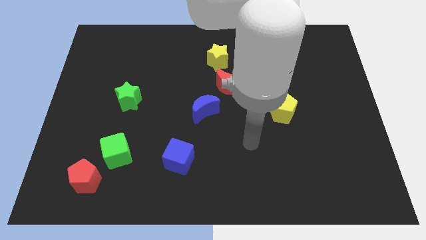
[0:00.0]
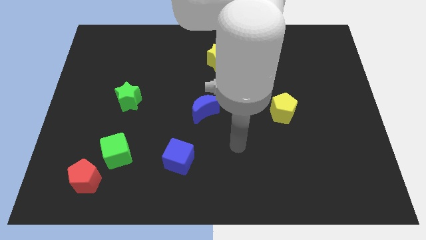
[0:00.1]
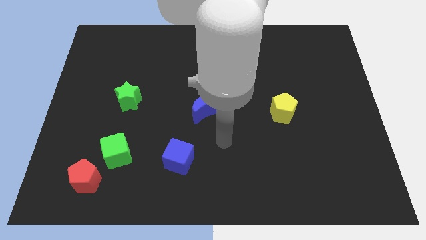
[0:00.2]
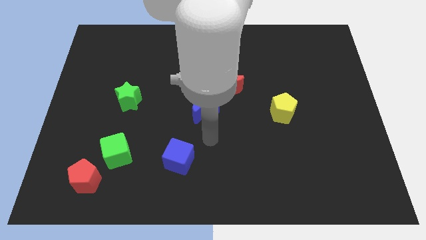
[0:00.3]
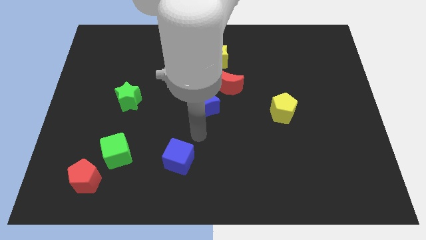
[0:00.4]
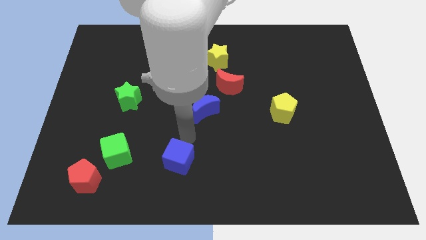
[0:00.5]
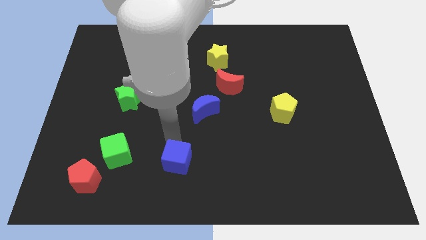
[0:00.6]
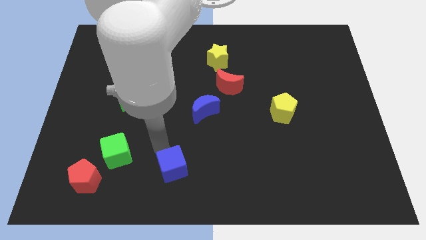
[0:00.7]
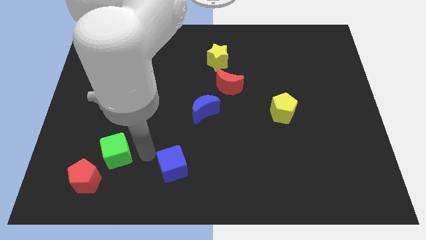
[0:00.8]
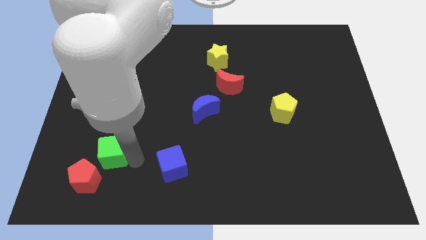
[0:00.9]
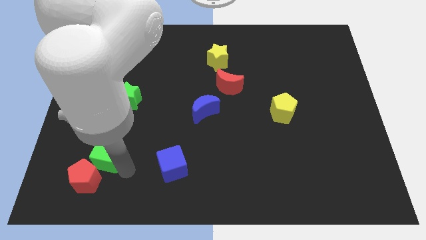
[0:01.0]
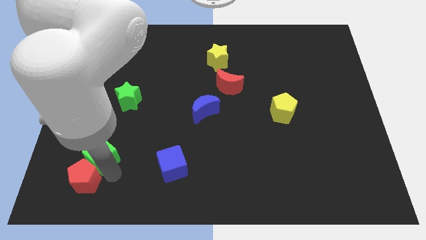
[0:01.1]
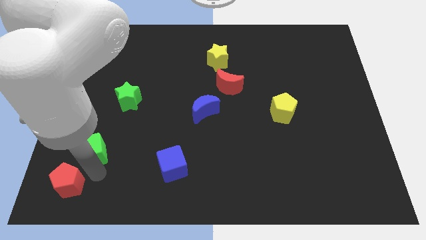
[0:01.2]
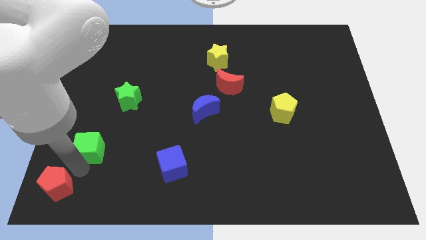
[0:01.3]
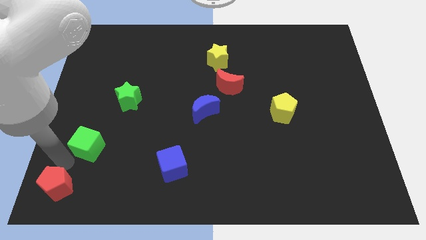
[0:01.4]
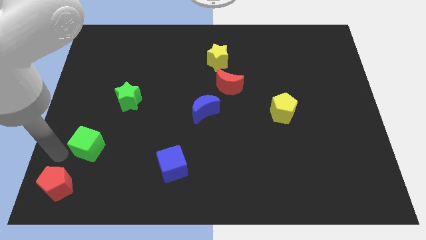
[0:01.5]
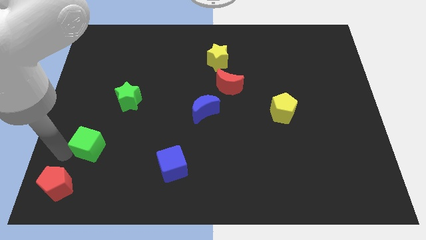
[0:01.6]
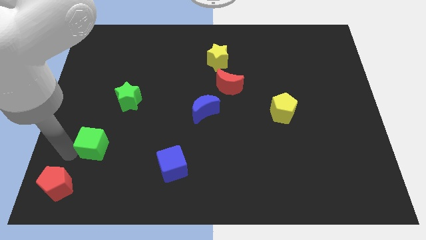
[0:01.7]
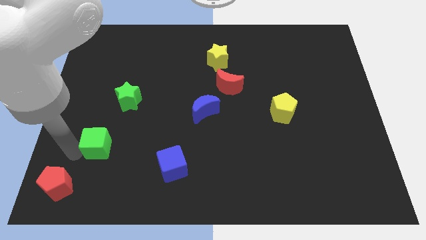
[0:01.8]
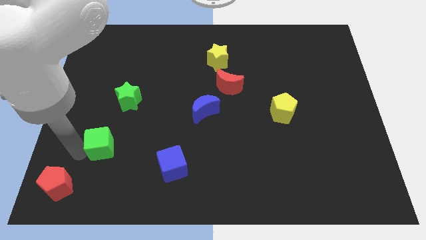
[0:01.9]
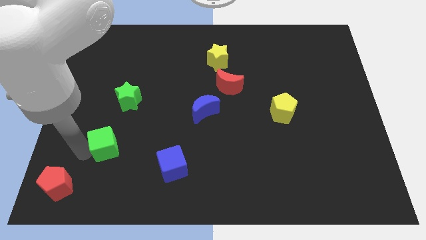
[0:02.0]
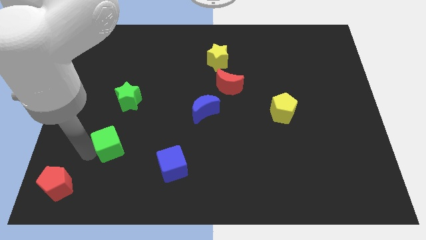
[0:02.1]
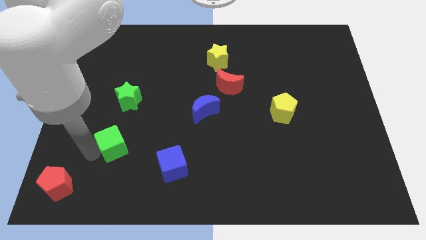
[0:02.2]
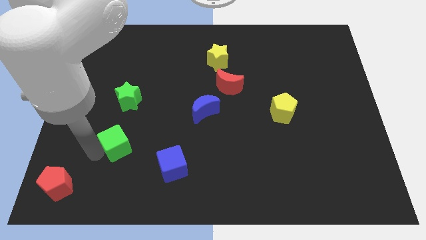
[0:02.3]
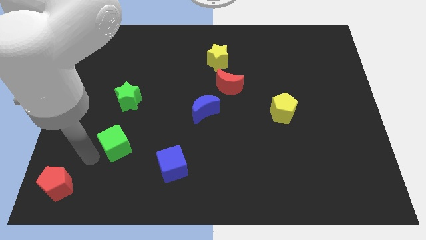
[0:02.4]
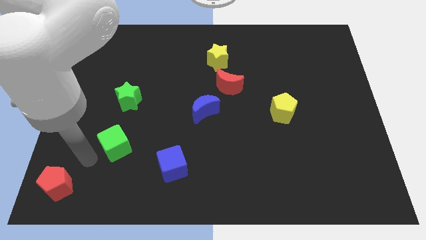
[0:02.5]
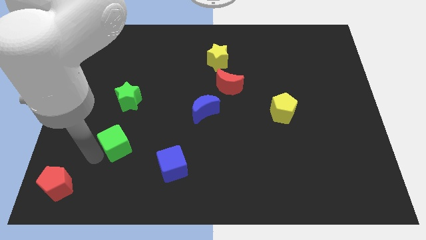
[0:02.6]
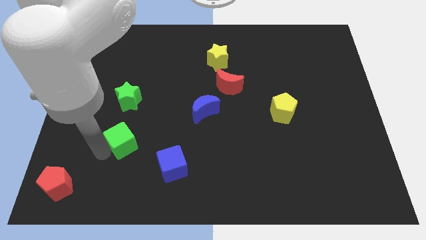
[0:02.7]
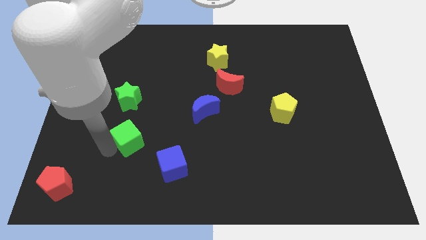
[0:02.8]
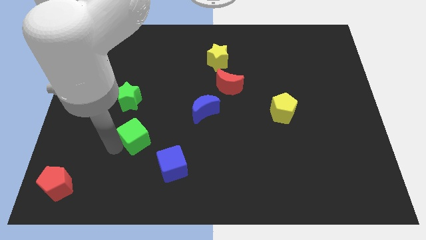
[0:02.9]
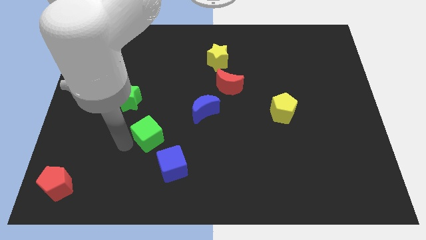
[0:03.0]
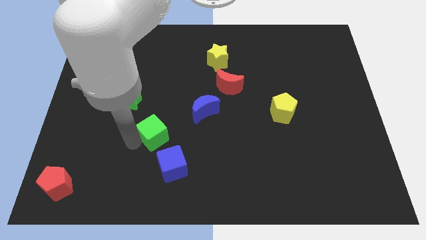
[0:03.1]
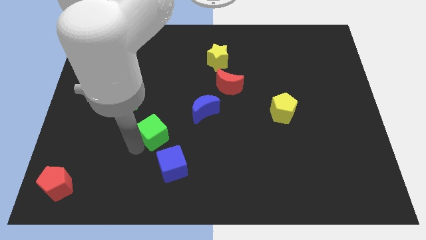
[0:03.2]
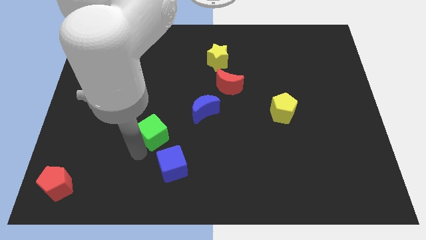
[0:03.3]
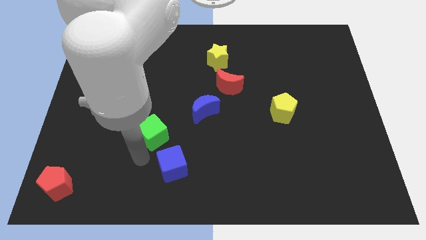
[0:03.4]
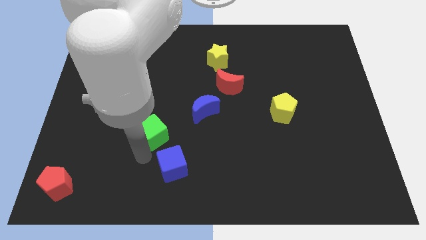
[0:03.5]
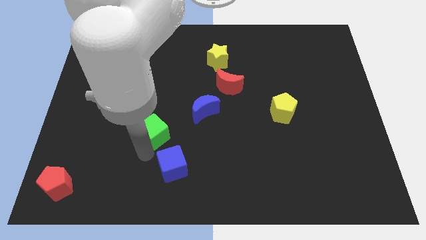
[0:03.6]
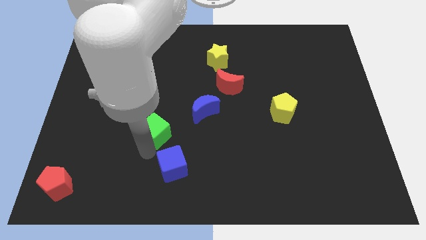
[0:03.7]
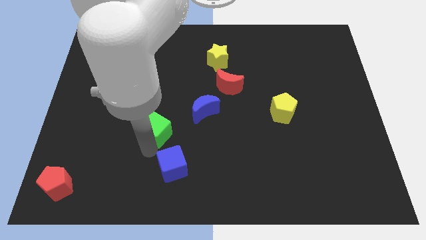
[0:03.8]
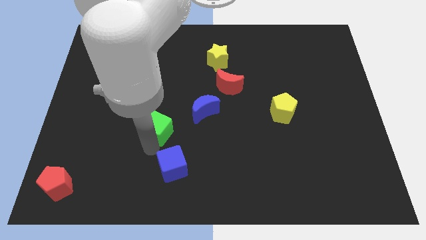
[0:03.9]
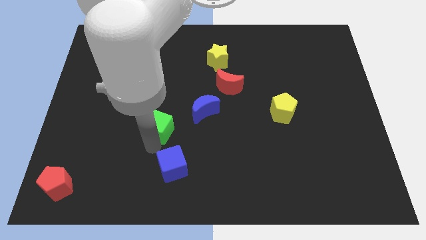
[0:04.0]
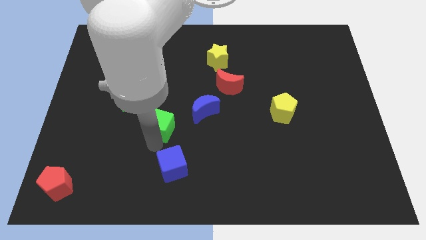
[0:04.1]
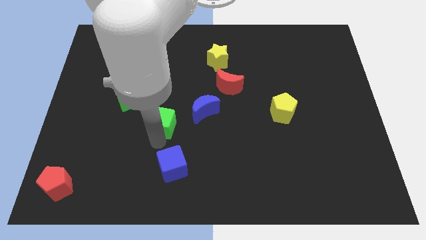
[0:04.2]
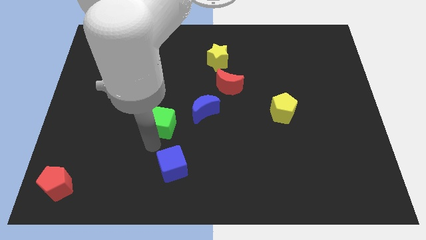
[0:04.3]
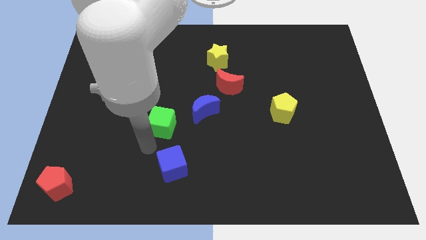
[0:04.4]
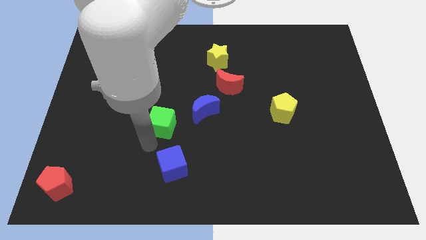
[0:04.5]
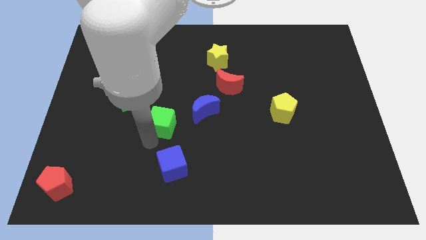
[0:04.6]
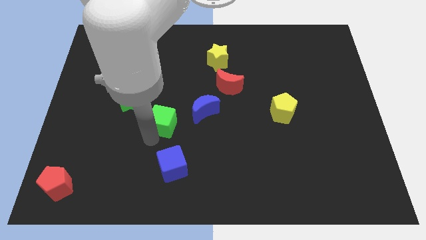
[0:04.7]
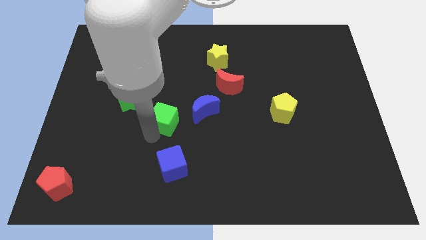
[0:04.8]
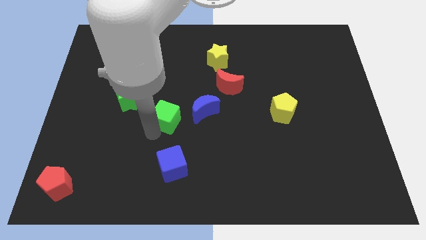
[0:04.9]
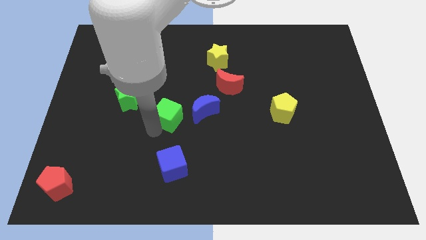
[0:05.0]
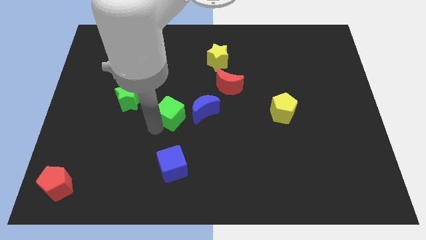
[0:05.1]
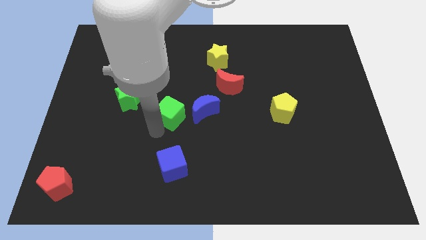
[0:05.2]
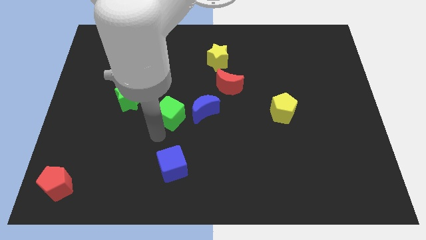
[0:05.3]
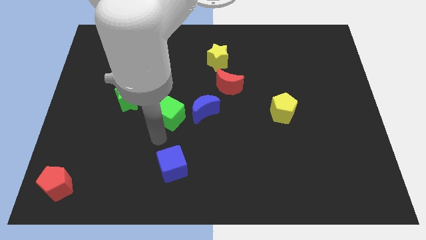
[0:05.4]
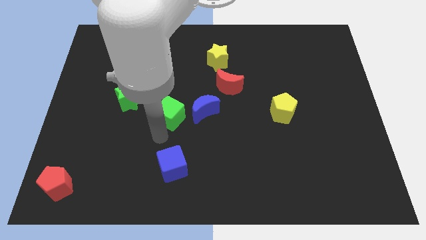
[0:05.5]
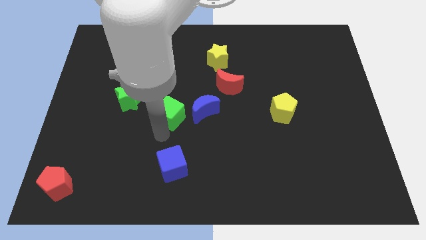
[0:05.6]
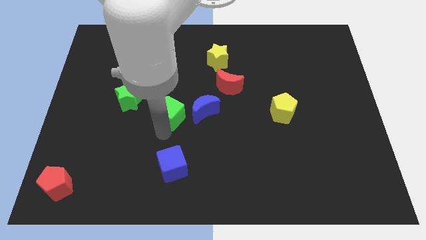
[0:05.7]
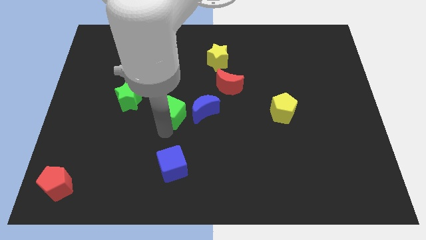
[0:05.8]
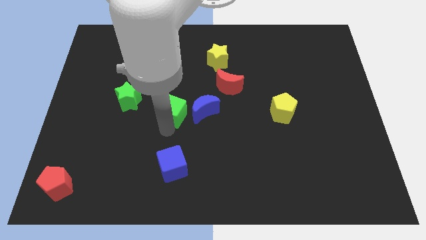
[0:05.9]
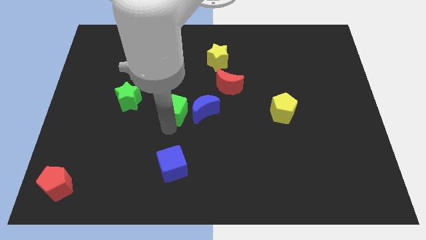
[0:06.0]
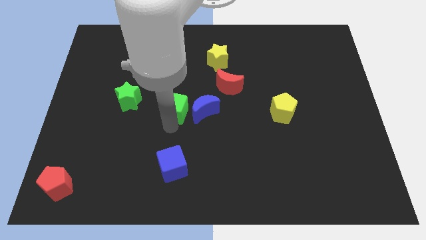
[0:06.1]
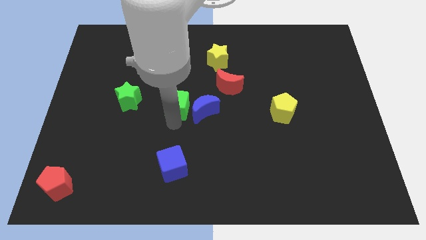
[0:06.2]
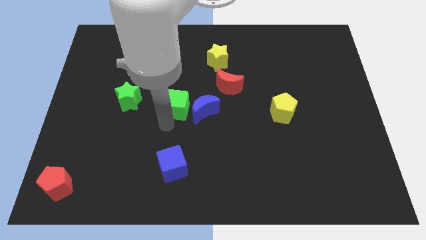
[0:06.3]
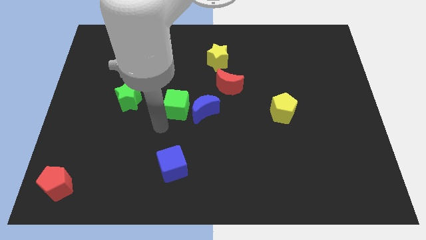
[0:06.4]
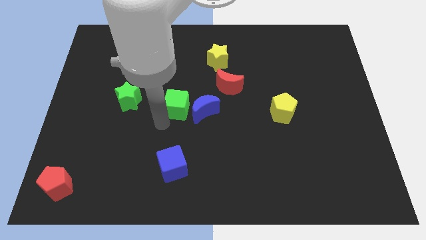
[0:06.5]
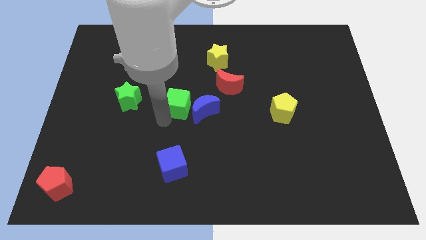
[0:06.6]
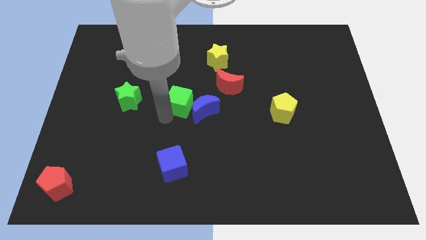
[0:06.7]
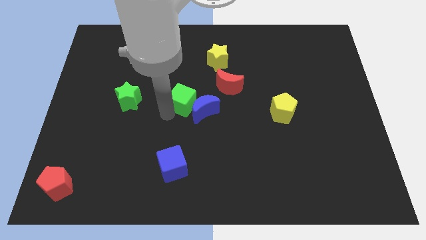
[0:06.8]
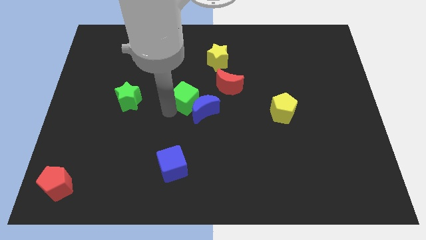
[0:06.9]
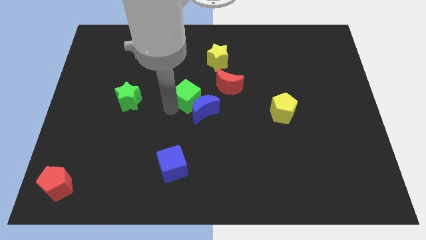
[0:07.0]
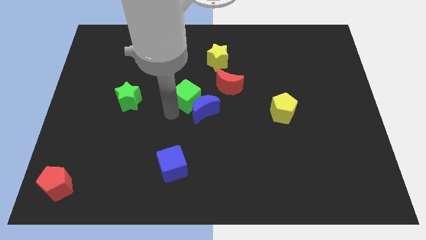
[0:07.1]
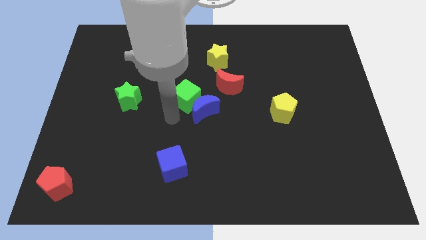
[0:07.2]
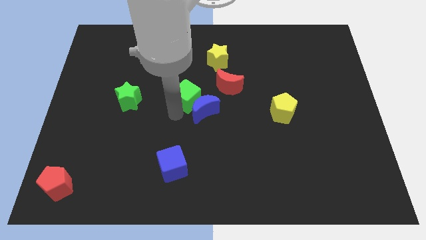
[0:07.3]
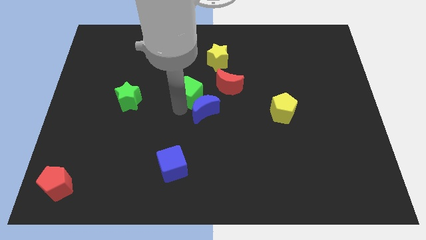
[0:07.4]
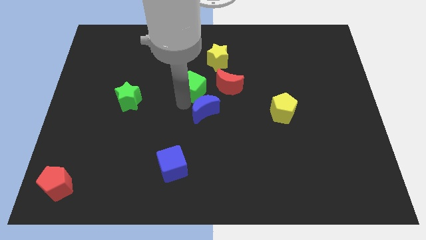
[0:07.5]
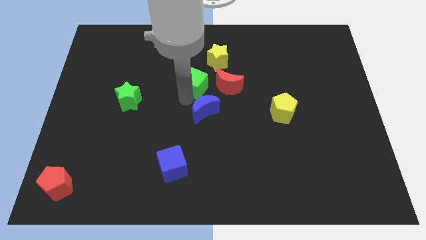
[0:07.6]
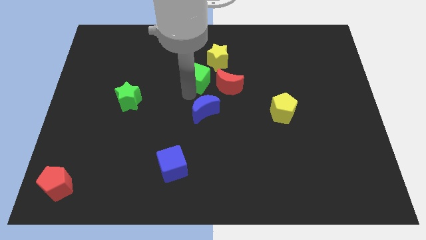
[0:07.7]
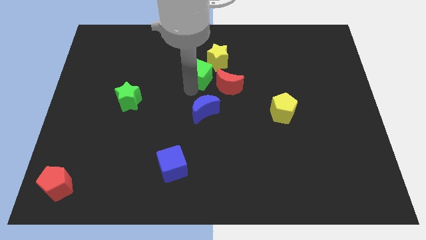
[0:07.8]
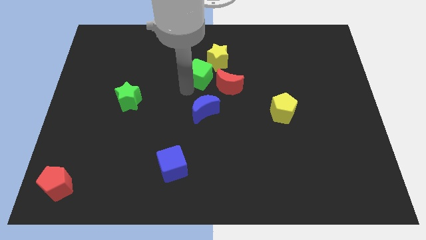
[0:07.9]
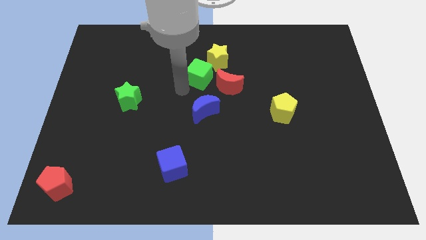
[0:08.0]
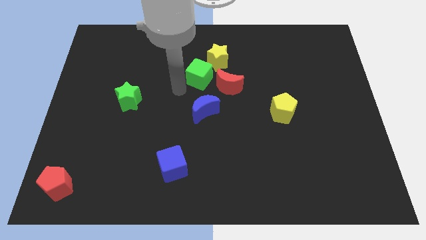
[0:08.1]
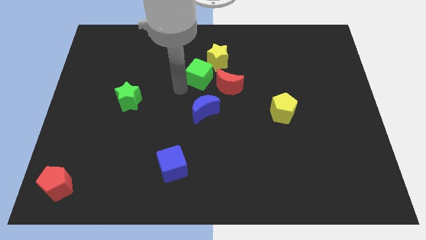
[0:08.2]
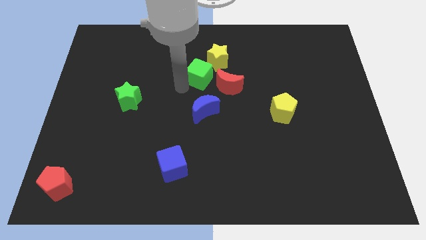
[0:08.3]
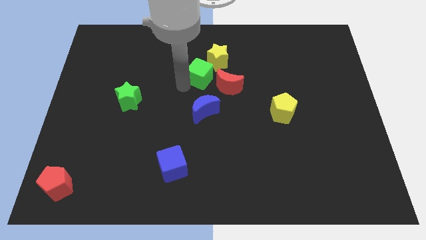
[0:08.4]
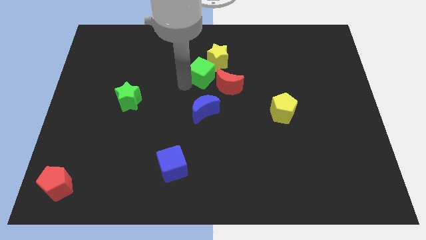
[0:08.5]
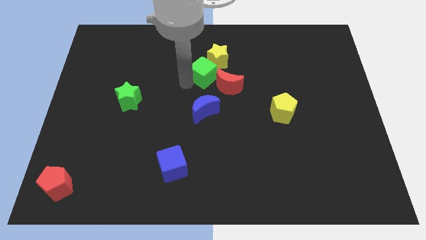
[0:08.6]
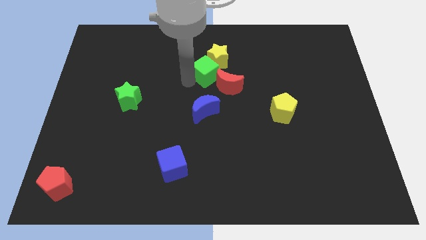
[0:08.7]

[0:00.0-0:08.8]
put the green cube close to the yellow star
